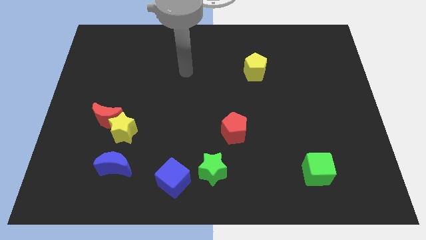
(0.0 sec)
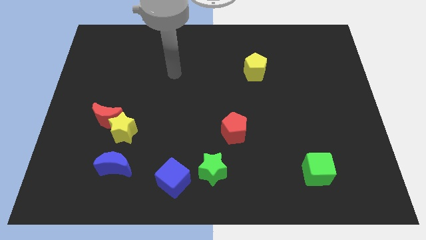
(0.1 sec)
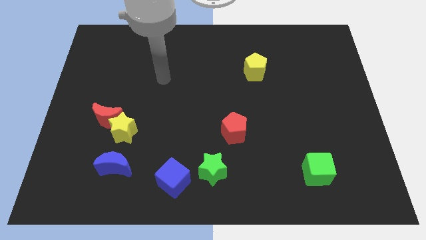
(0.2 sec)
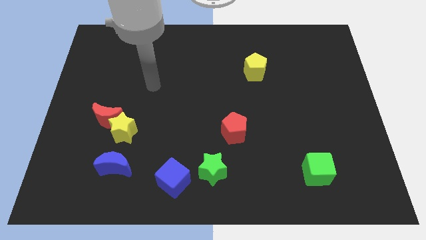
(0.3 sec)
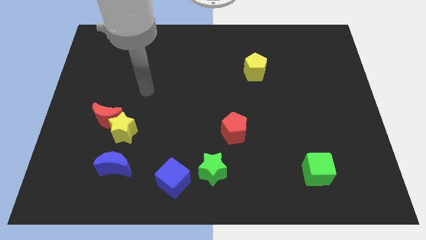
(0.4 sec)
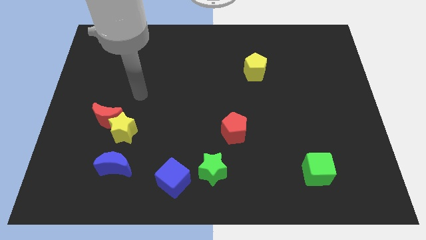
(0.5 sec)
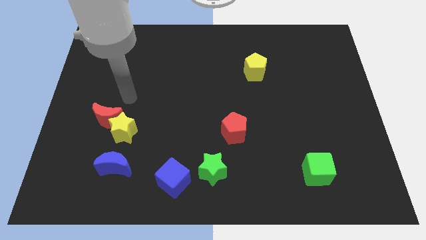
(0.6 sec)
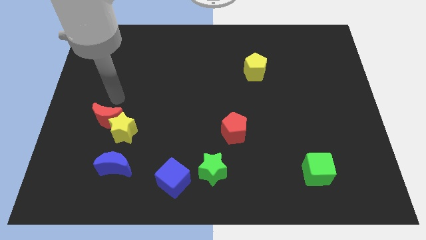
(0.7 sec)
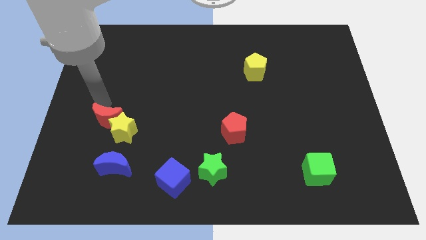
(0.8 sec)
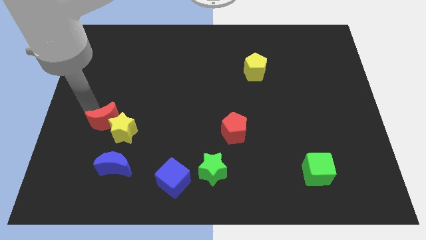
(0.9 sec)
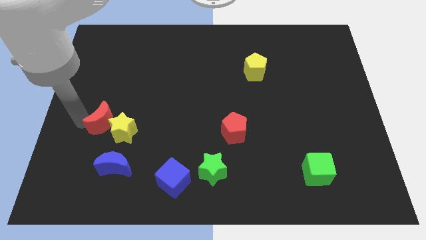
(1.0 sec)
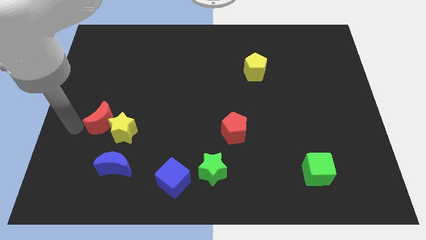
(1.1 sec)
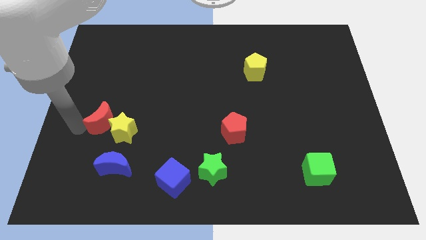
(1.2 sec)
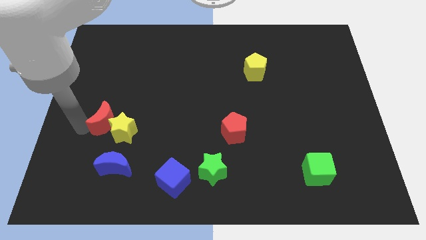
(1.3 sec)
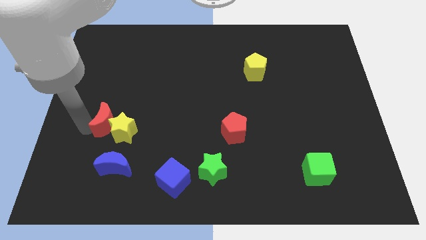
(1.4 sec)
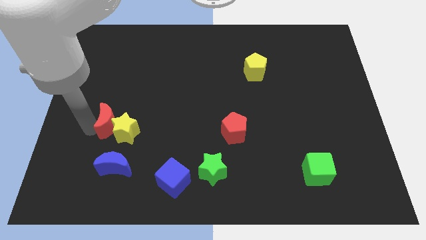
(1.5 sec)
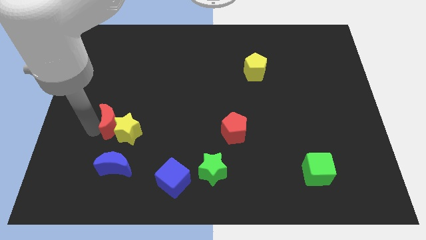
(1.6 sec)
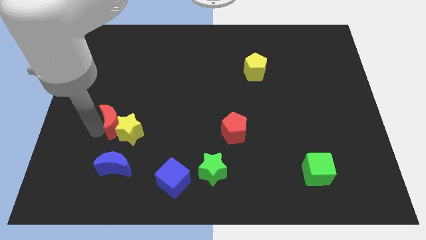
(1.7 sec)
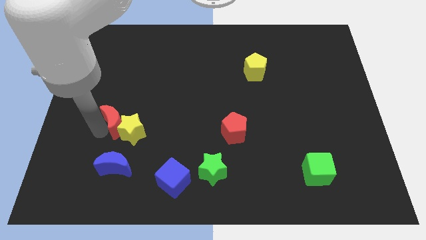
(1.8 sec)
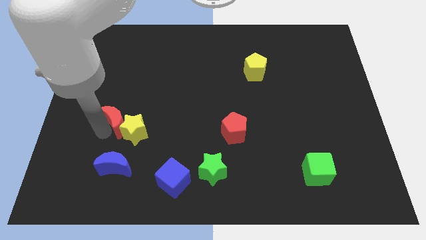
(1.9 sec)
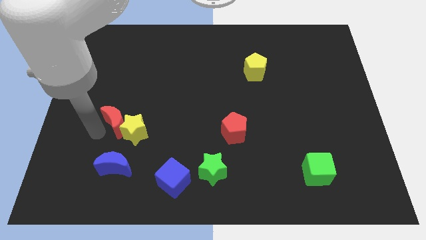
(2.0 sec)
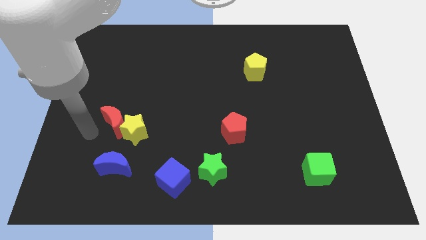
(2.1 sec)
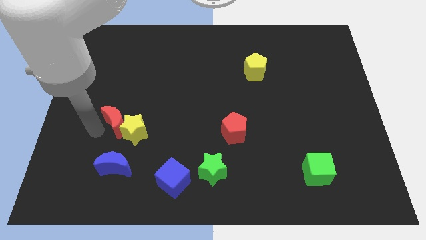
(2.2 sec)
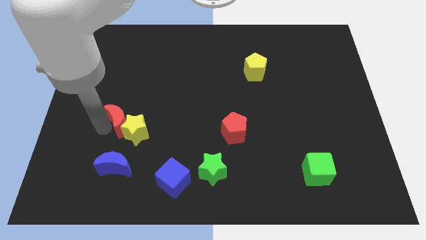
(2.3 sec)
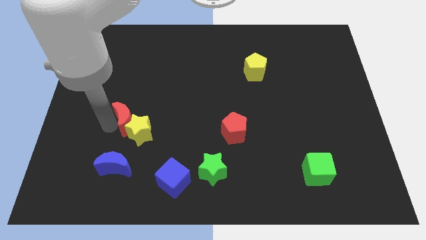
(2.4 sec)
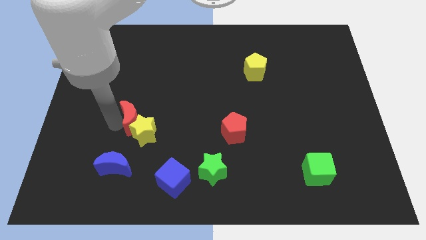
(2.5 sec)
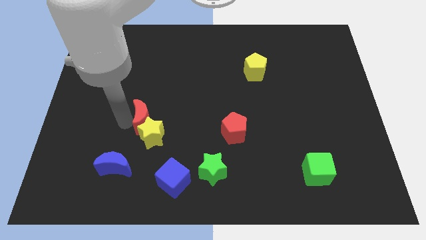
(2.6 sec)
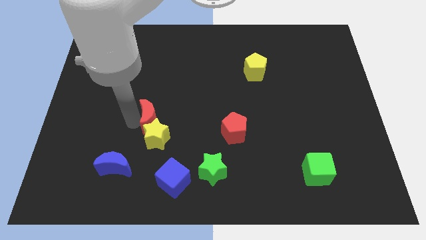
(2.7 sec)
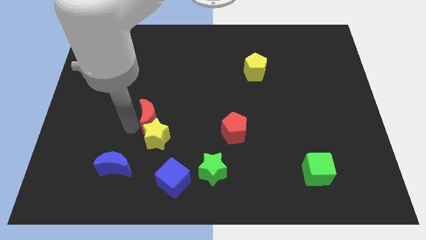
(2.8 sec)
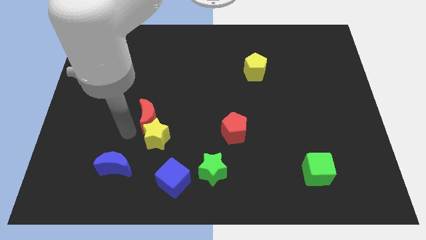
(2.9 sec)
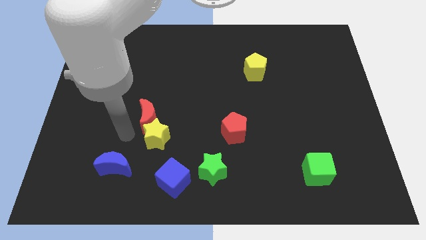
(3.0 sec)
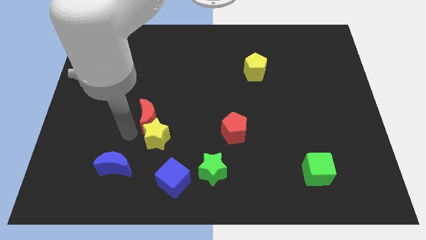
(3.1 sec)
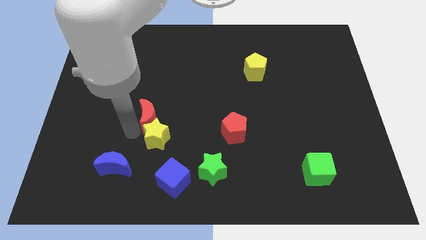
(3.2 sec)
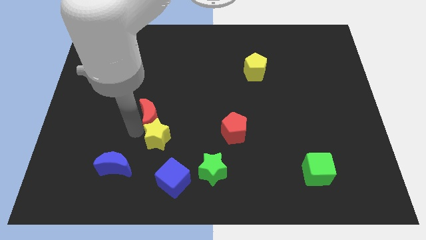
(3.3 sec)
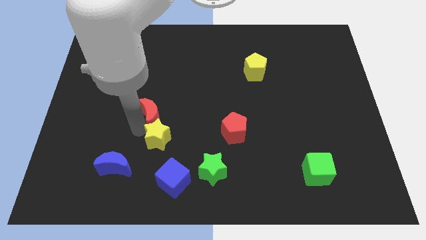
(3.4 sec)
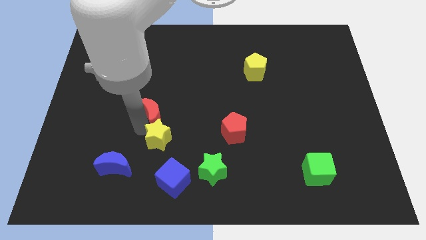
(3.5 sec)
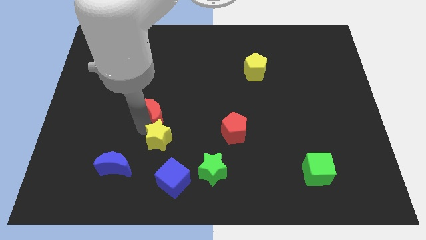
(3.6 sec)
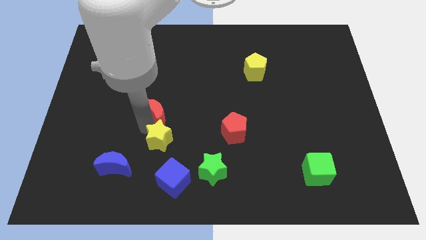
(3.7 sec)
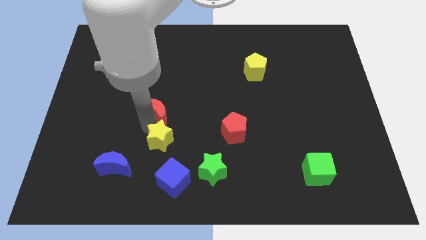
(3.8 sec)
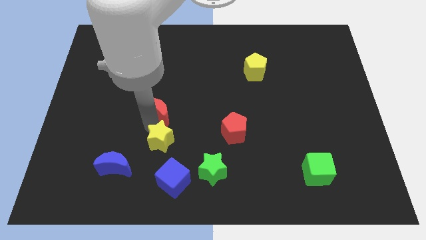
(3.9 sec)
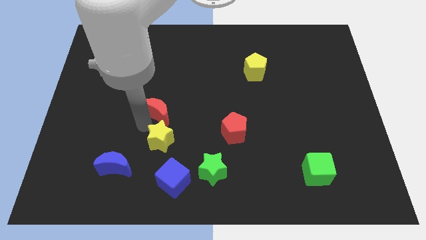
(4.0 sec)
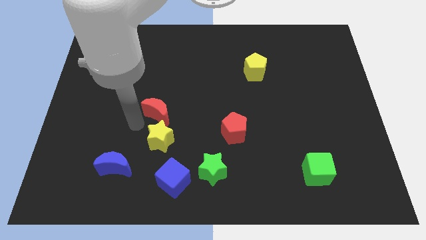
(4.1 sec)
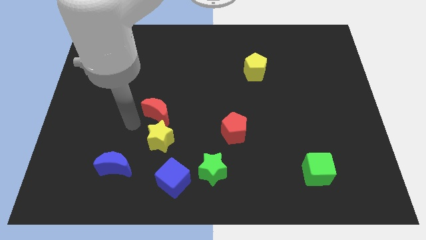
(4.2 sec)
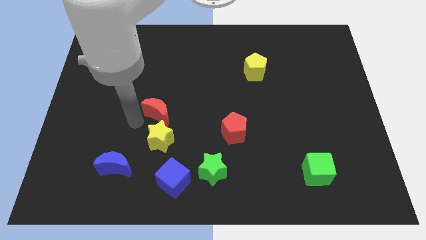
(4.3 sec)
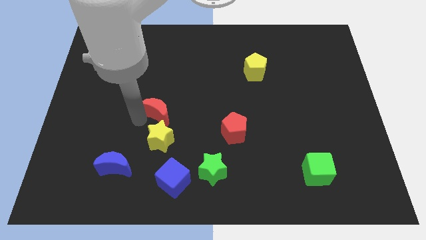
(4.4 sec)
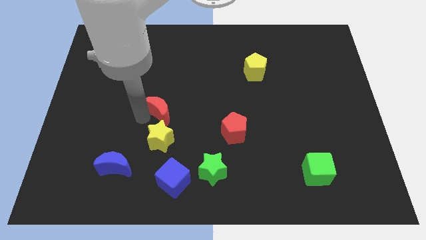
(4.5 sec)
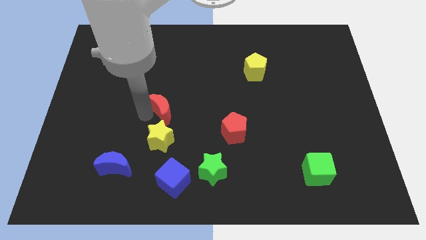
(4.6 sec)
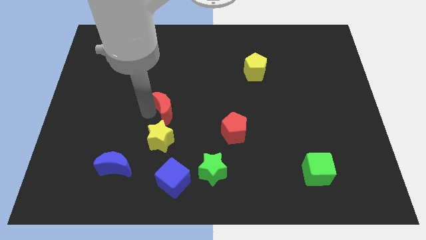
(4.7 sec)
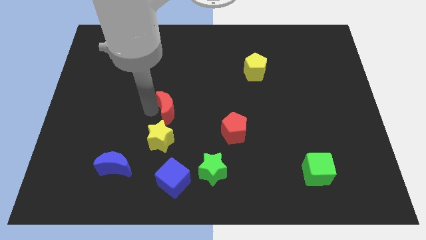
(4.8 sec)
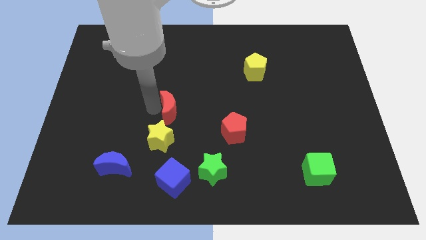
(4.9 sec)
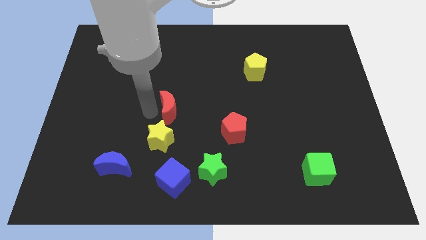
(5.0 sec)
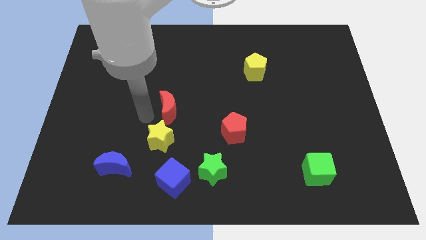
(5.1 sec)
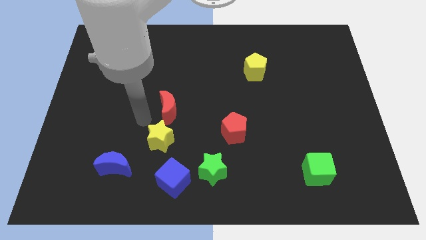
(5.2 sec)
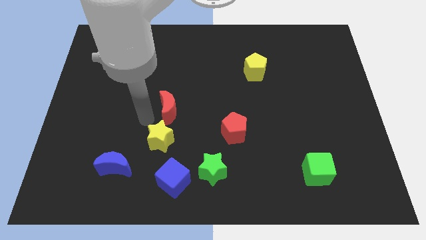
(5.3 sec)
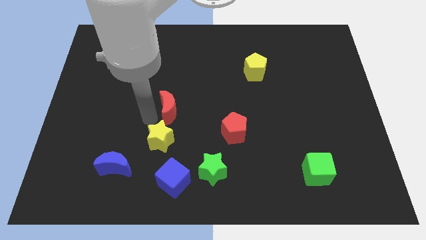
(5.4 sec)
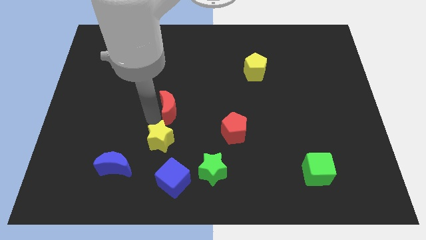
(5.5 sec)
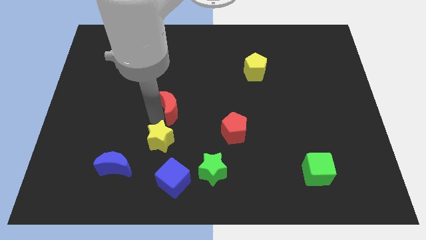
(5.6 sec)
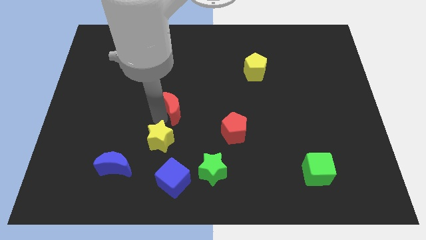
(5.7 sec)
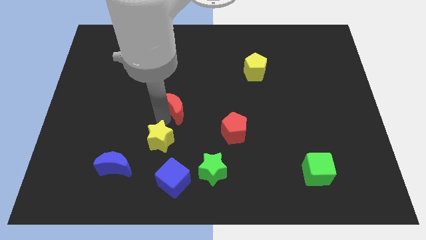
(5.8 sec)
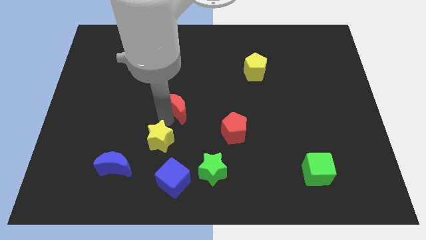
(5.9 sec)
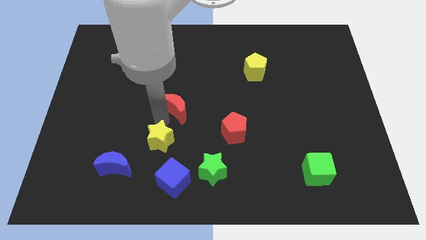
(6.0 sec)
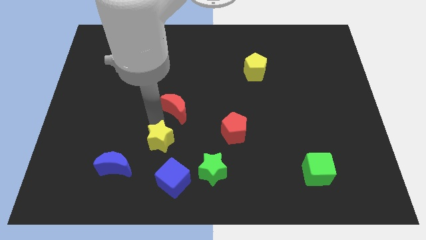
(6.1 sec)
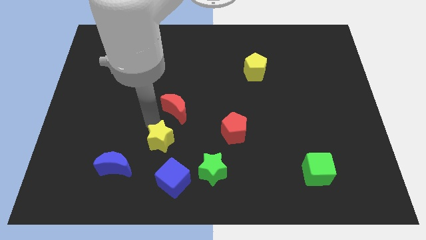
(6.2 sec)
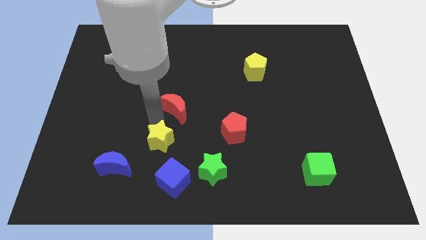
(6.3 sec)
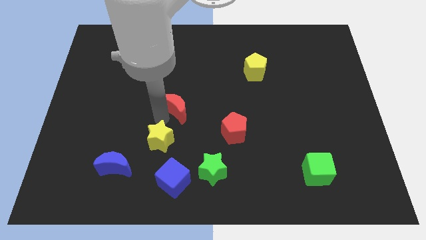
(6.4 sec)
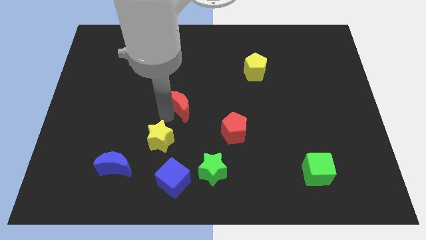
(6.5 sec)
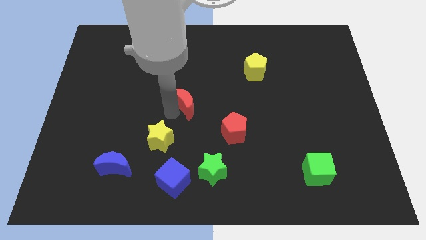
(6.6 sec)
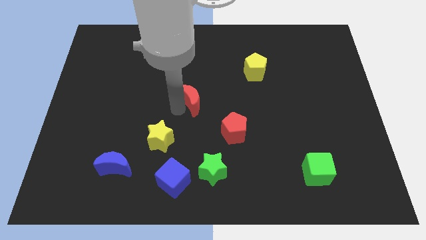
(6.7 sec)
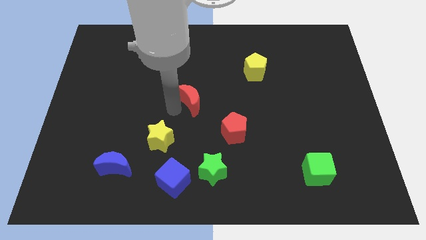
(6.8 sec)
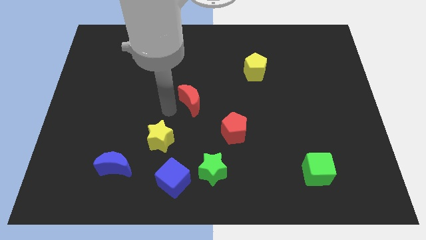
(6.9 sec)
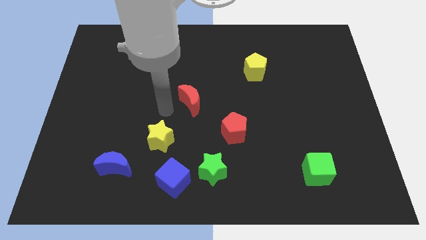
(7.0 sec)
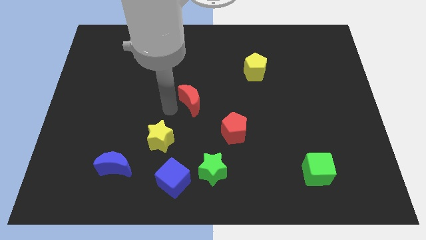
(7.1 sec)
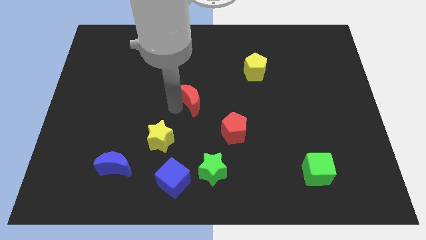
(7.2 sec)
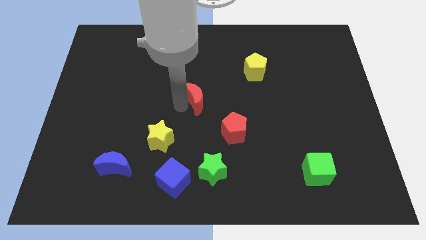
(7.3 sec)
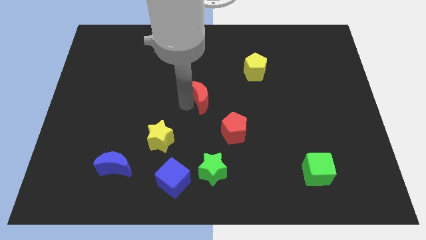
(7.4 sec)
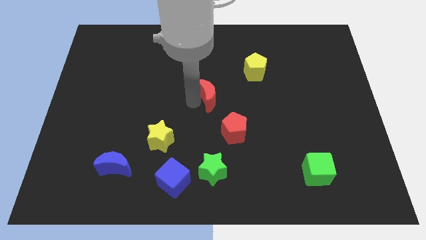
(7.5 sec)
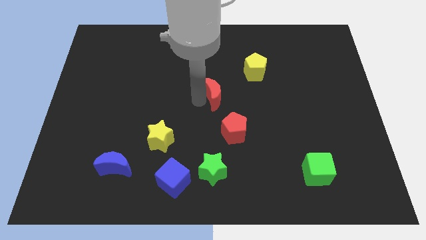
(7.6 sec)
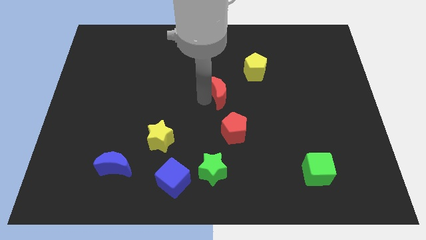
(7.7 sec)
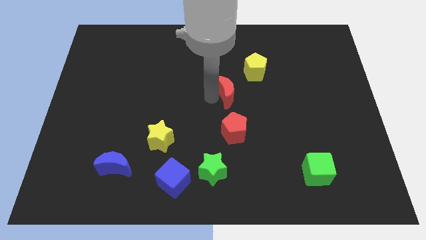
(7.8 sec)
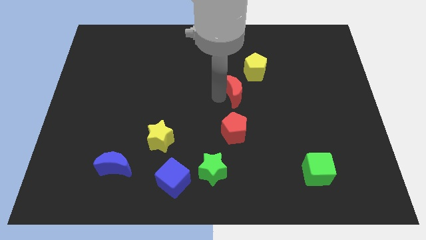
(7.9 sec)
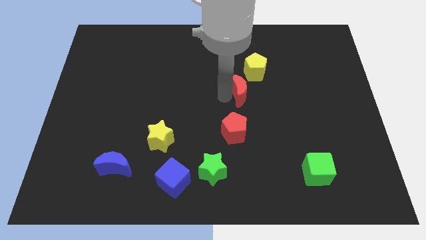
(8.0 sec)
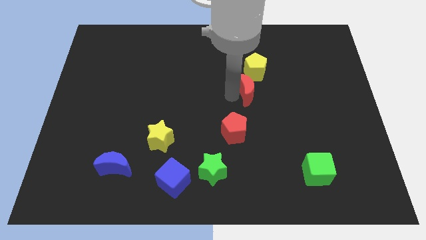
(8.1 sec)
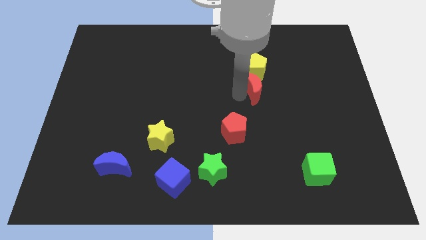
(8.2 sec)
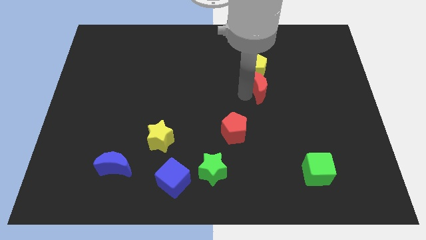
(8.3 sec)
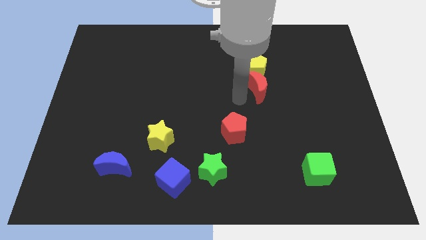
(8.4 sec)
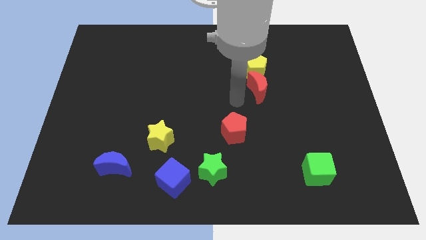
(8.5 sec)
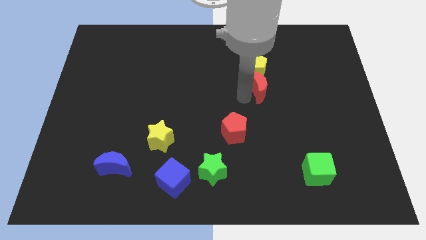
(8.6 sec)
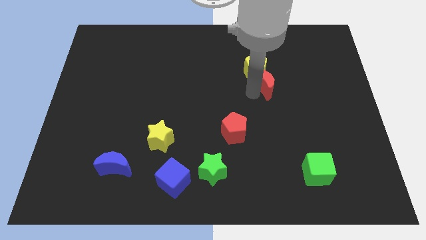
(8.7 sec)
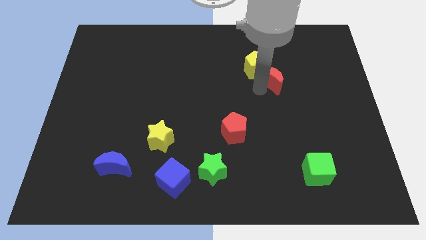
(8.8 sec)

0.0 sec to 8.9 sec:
put the red moon to the right of the yellow pentagon
